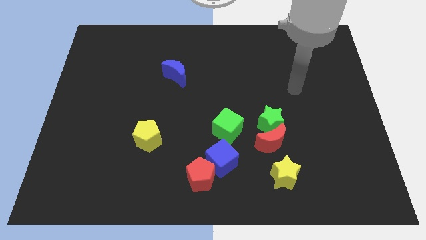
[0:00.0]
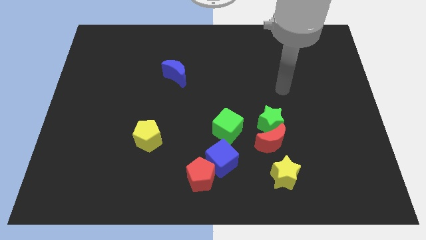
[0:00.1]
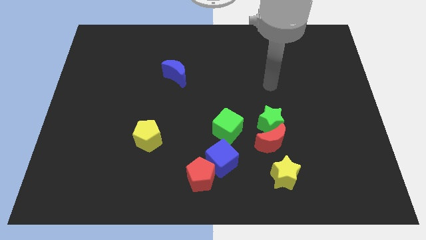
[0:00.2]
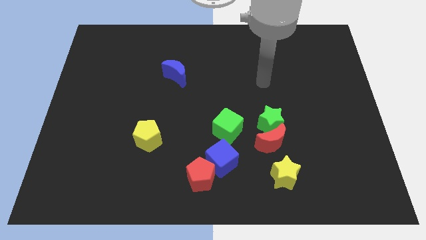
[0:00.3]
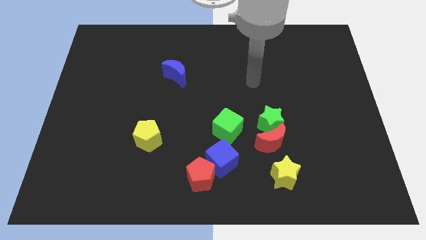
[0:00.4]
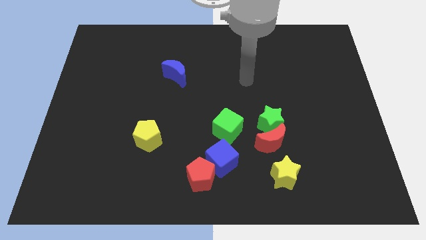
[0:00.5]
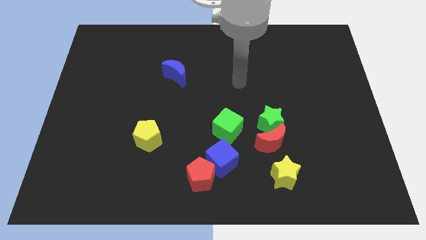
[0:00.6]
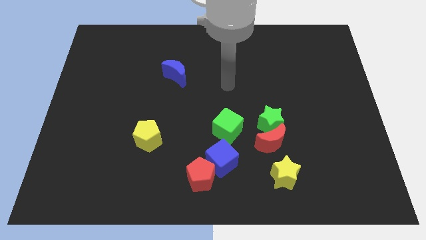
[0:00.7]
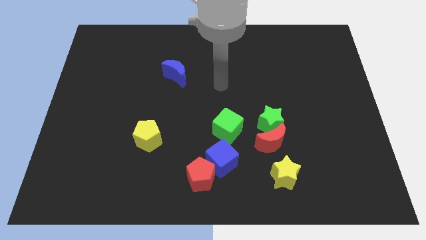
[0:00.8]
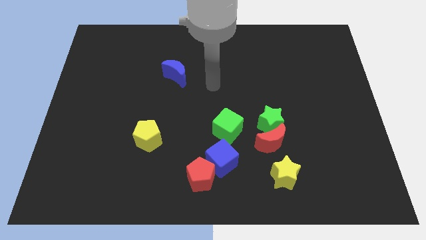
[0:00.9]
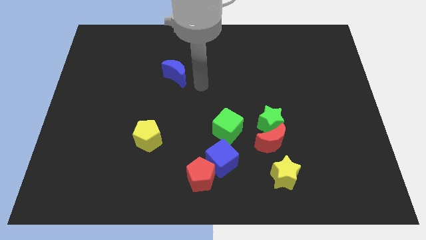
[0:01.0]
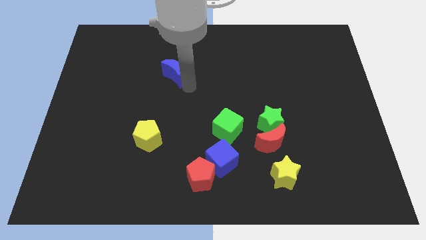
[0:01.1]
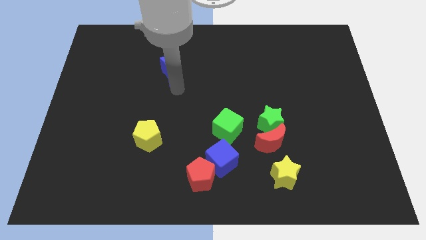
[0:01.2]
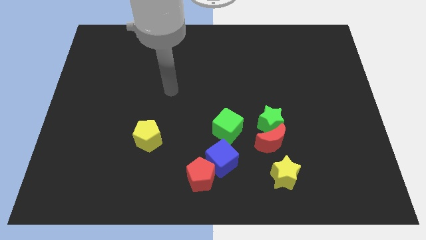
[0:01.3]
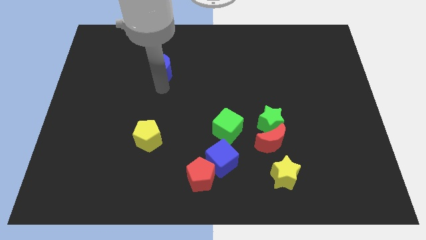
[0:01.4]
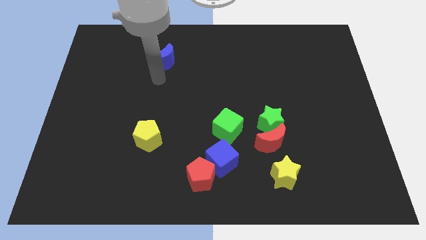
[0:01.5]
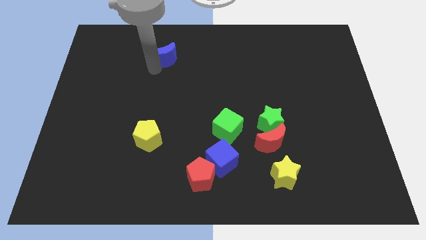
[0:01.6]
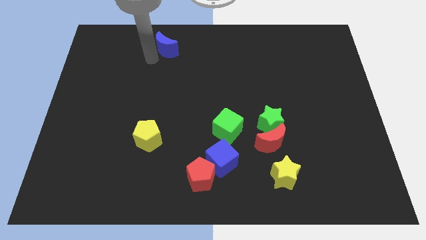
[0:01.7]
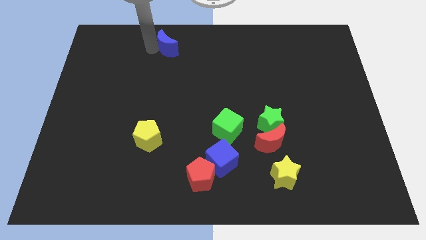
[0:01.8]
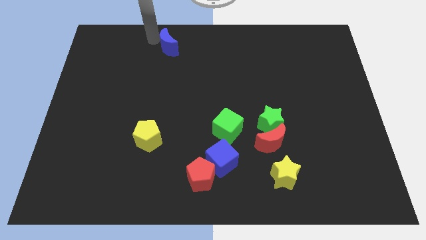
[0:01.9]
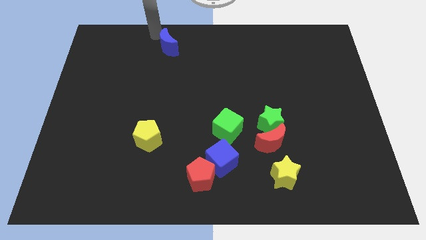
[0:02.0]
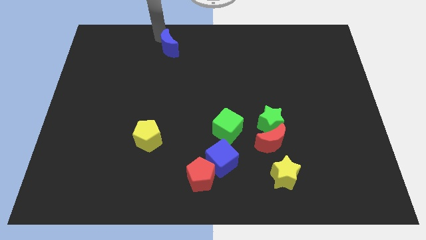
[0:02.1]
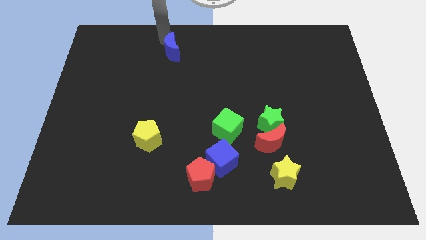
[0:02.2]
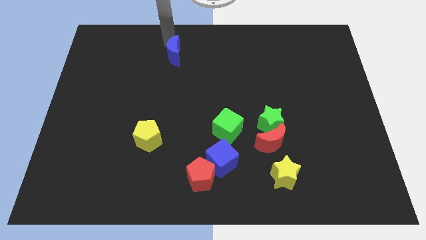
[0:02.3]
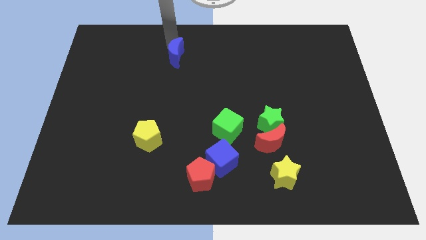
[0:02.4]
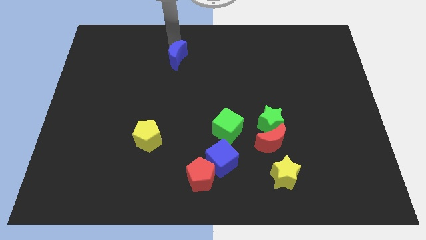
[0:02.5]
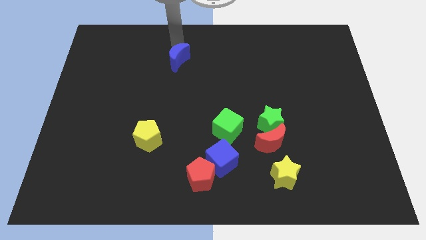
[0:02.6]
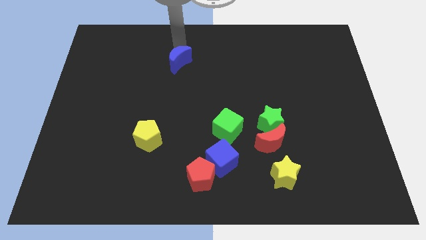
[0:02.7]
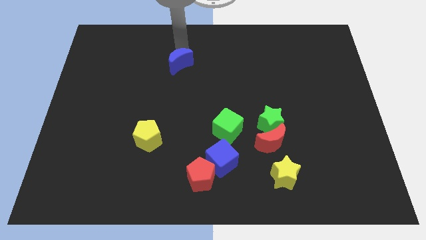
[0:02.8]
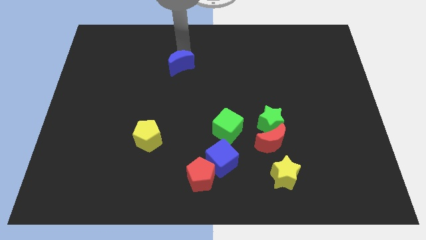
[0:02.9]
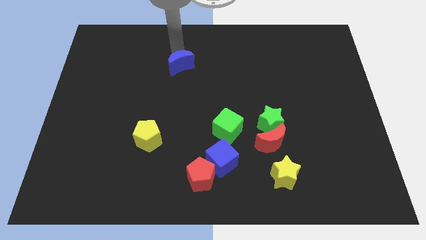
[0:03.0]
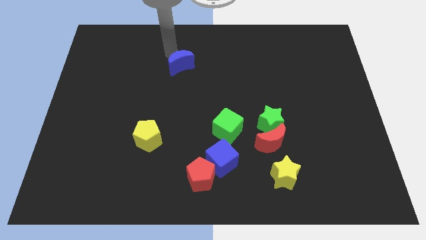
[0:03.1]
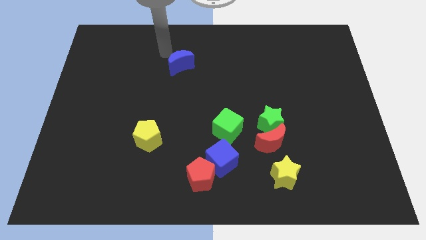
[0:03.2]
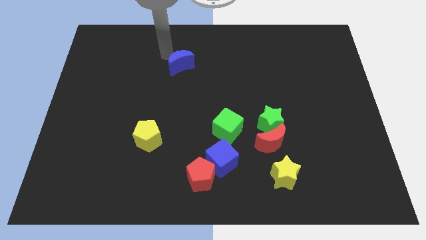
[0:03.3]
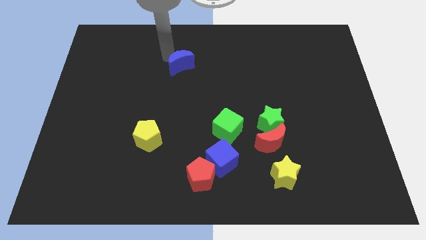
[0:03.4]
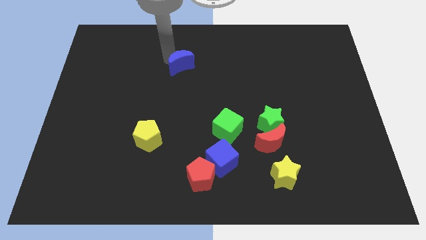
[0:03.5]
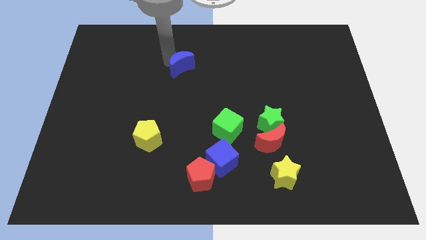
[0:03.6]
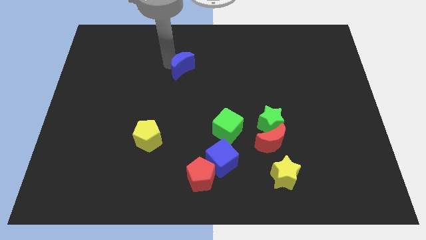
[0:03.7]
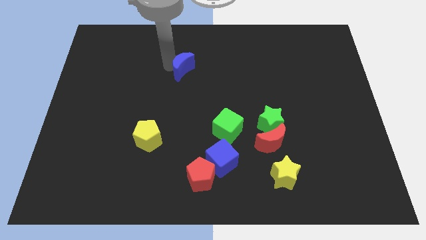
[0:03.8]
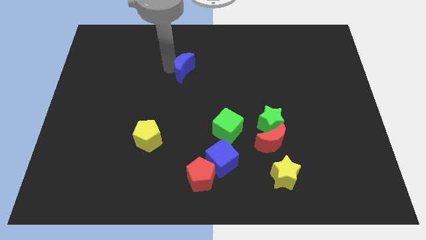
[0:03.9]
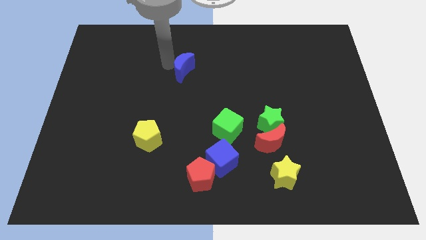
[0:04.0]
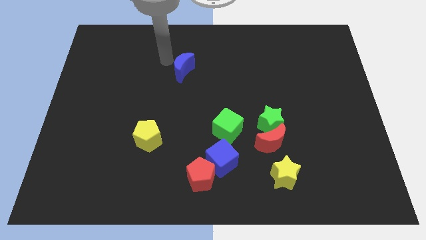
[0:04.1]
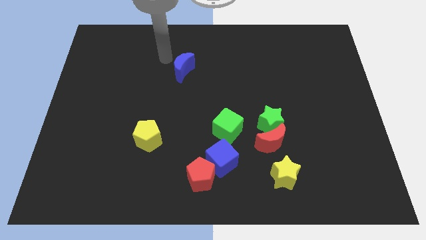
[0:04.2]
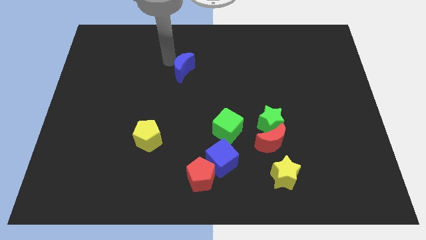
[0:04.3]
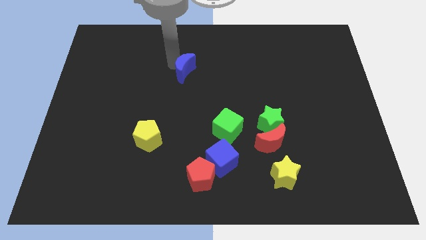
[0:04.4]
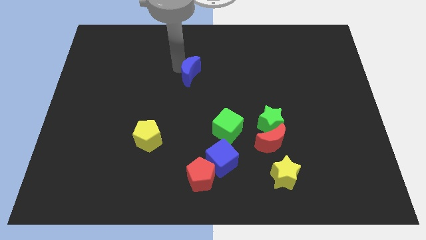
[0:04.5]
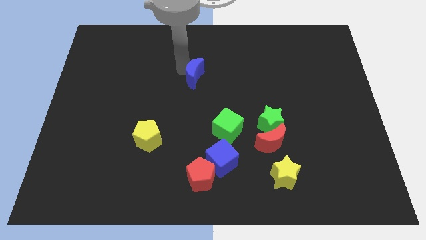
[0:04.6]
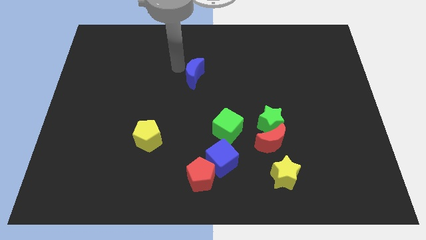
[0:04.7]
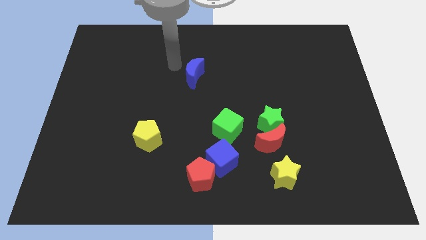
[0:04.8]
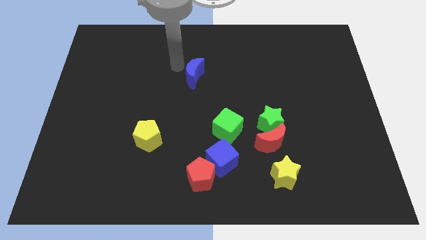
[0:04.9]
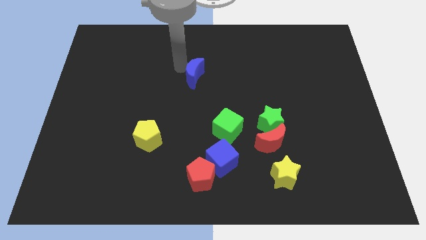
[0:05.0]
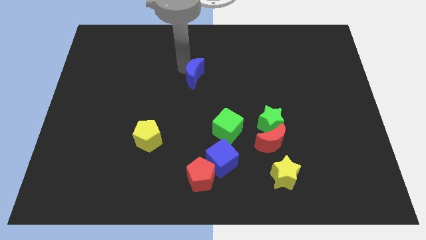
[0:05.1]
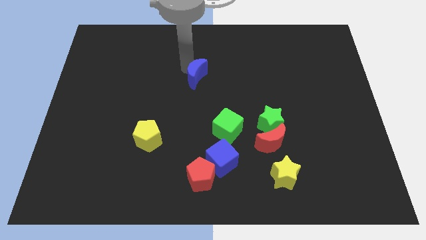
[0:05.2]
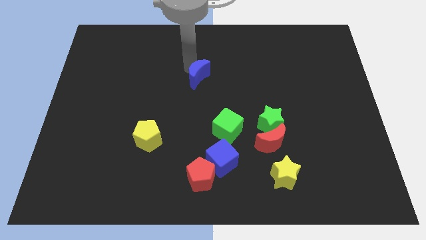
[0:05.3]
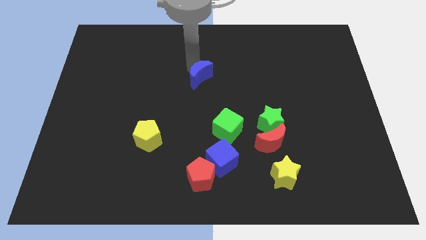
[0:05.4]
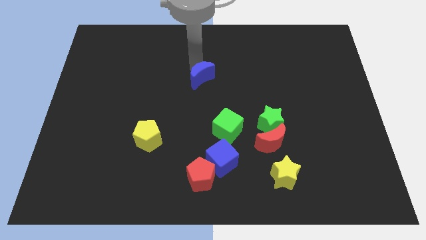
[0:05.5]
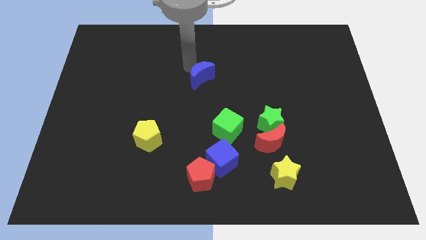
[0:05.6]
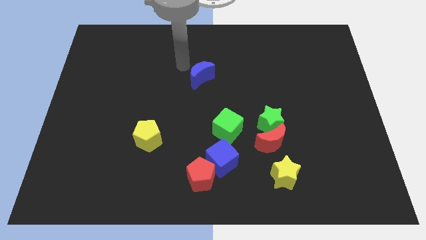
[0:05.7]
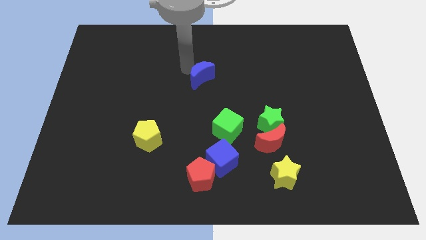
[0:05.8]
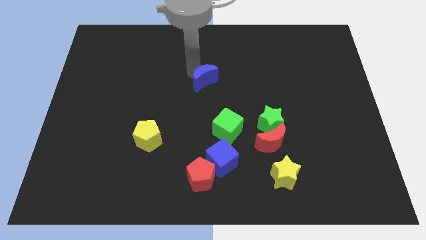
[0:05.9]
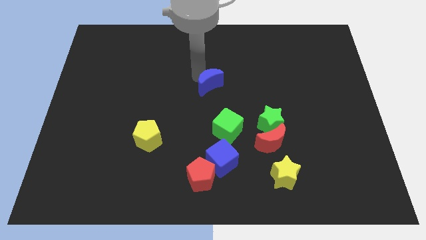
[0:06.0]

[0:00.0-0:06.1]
slide the blue moon to the top side of the green cube
